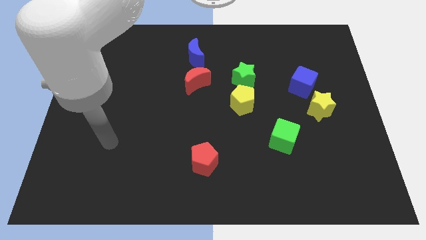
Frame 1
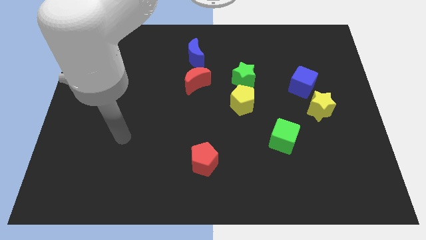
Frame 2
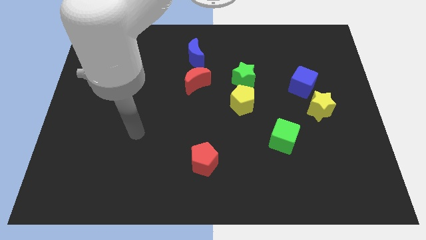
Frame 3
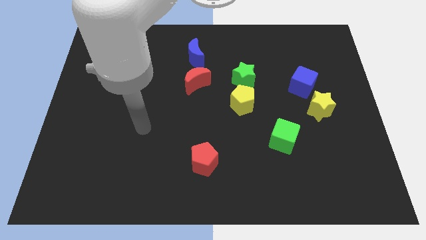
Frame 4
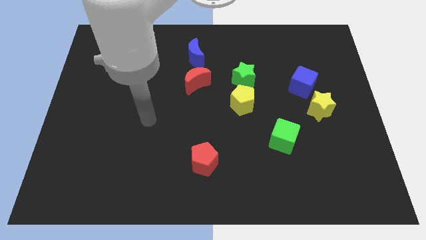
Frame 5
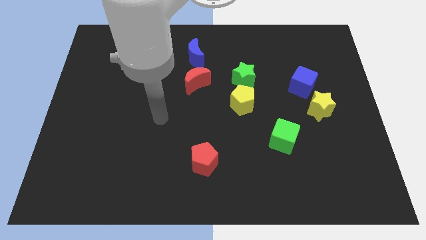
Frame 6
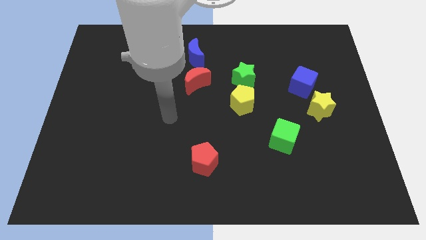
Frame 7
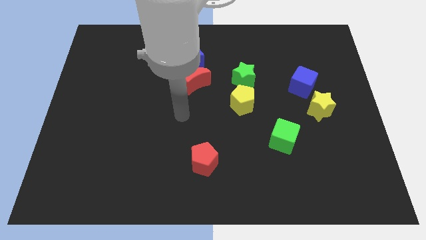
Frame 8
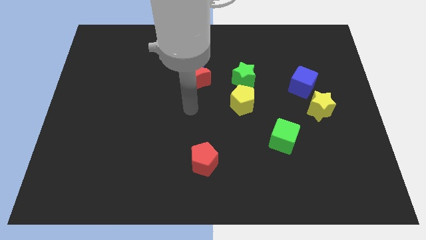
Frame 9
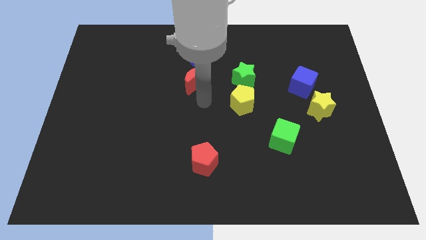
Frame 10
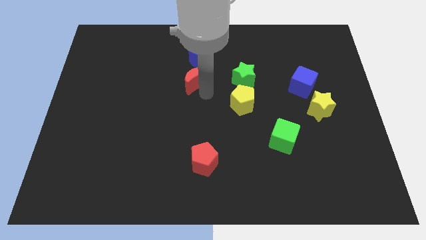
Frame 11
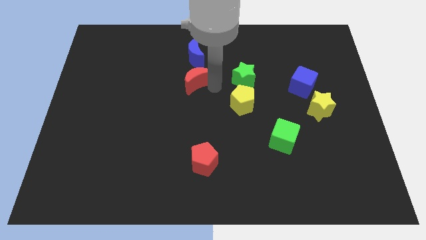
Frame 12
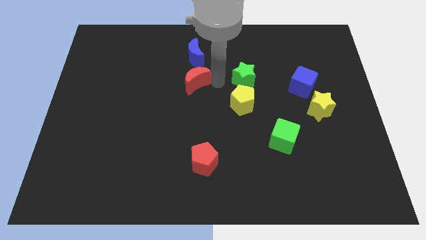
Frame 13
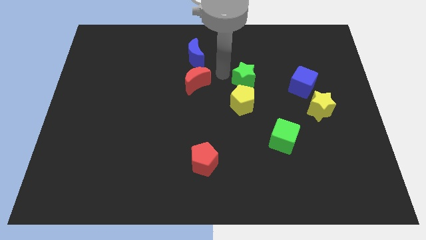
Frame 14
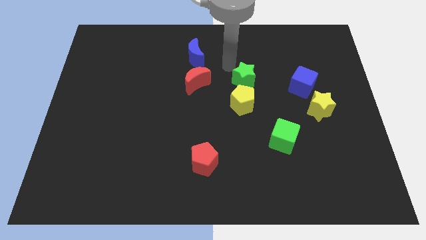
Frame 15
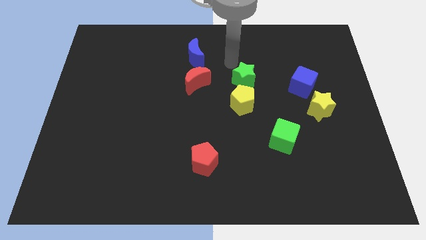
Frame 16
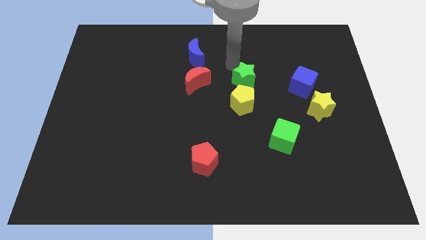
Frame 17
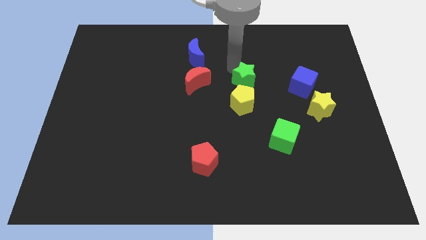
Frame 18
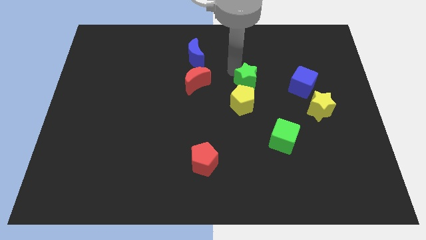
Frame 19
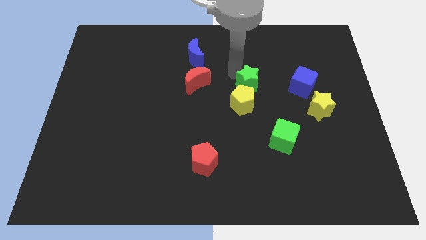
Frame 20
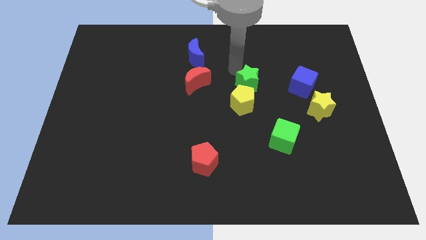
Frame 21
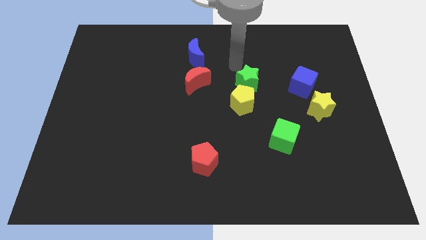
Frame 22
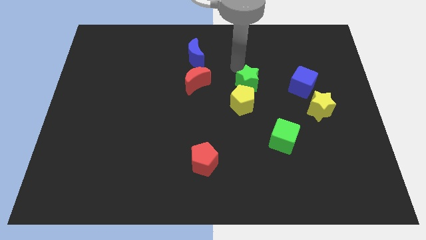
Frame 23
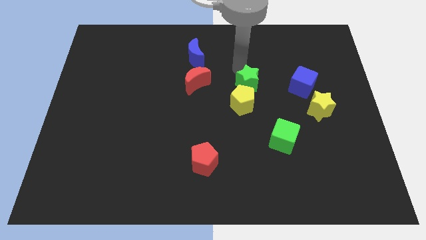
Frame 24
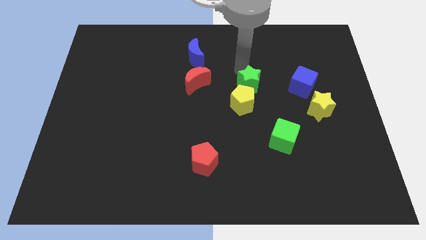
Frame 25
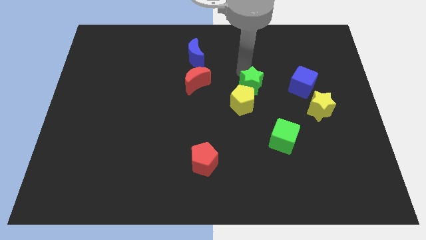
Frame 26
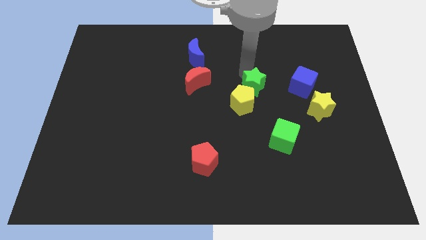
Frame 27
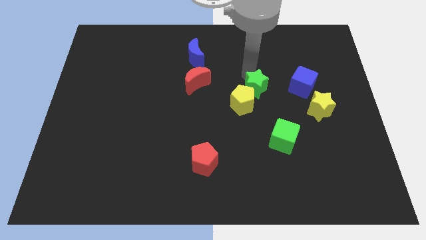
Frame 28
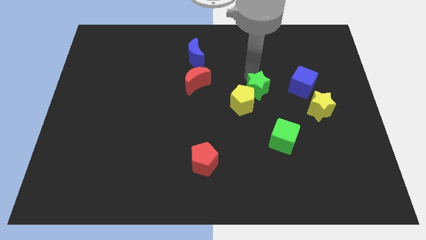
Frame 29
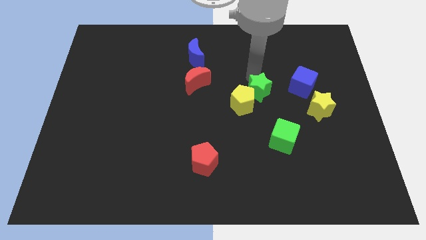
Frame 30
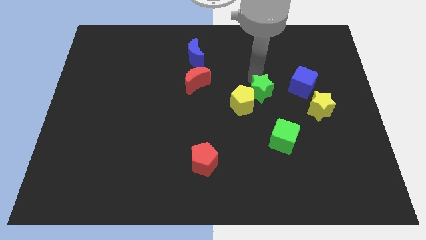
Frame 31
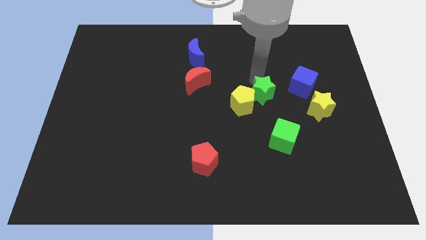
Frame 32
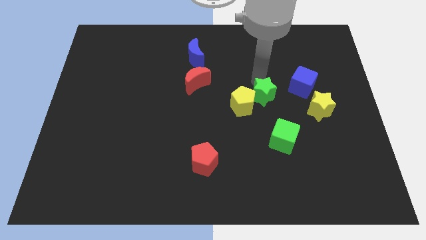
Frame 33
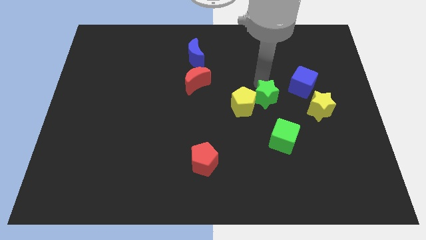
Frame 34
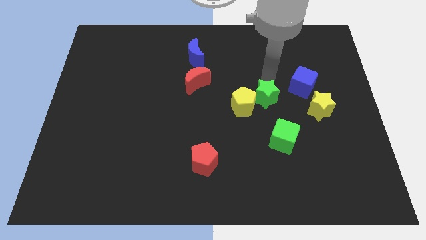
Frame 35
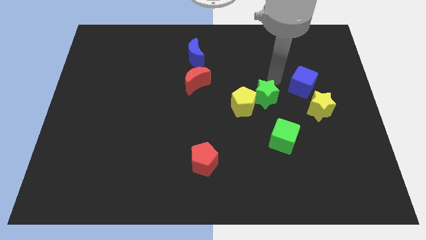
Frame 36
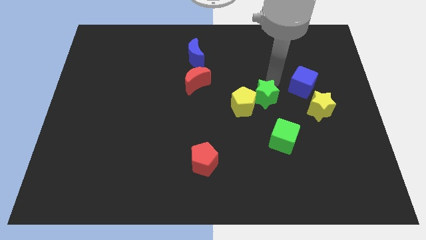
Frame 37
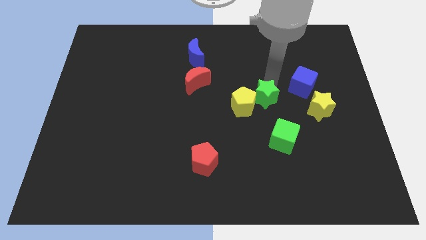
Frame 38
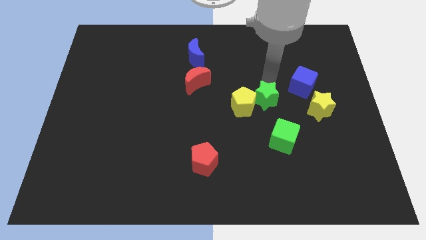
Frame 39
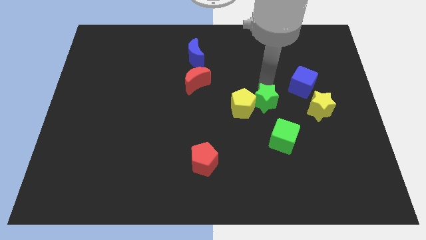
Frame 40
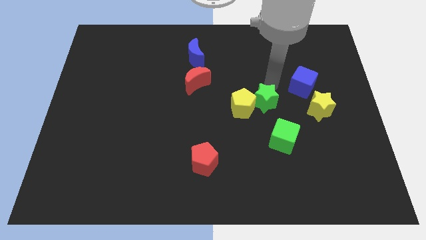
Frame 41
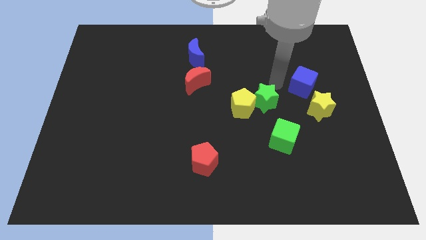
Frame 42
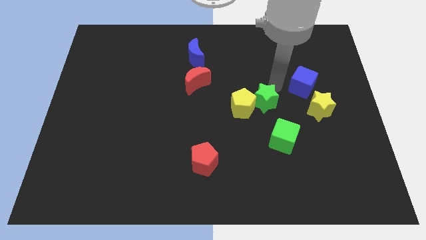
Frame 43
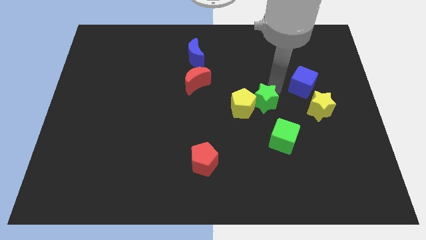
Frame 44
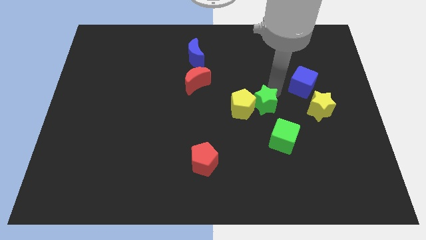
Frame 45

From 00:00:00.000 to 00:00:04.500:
slightly move the green star down

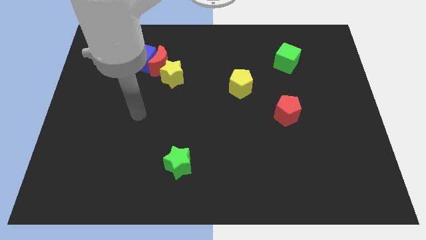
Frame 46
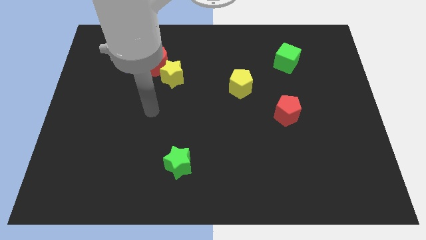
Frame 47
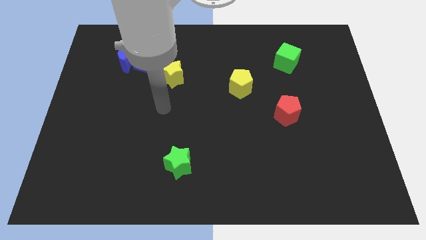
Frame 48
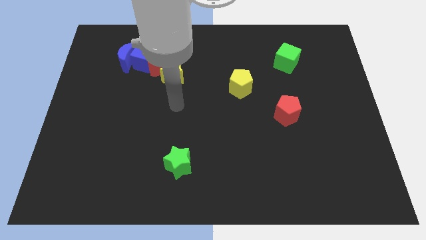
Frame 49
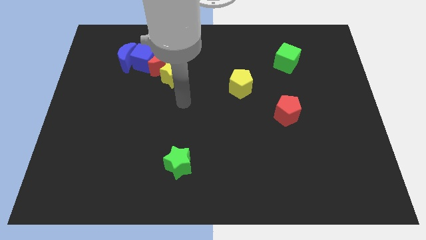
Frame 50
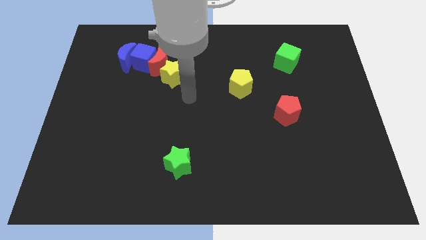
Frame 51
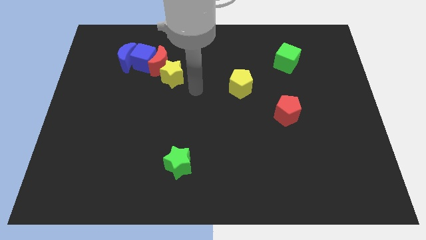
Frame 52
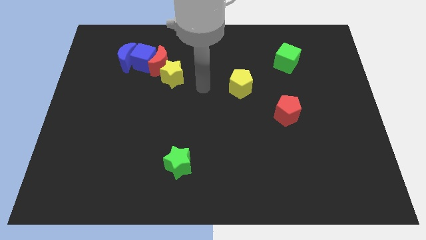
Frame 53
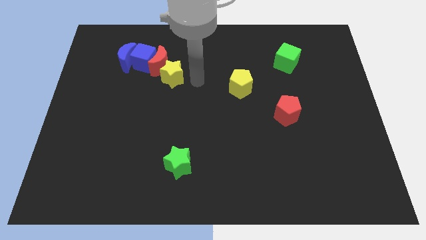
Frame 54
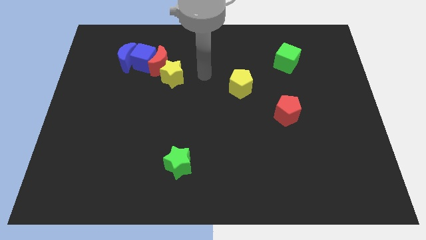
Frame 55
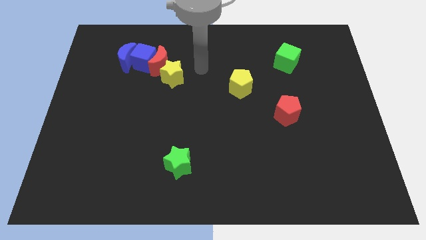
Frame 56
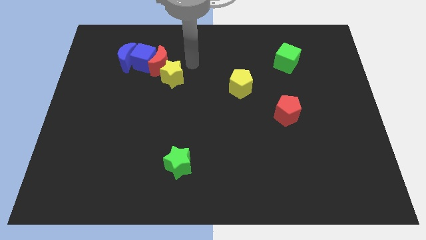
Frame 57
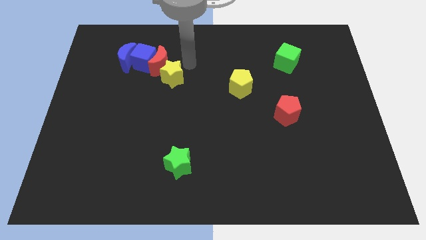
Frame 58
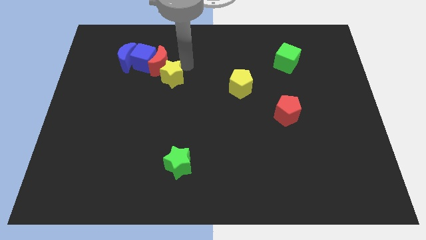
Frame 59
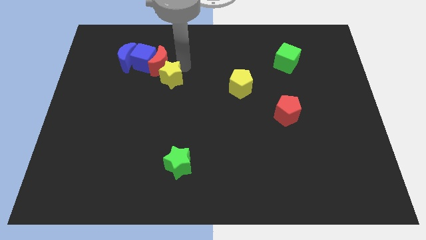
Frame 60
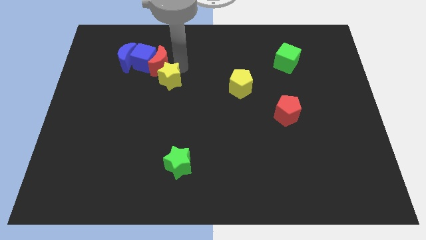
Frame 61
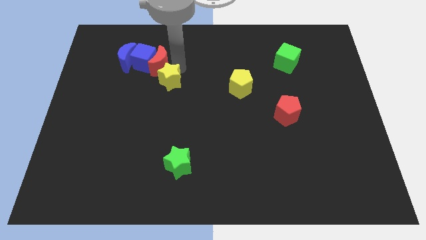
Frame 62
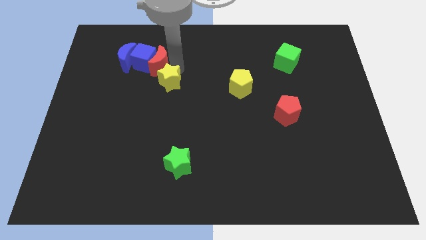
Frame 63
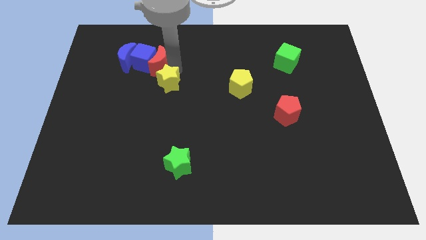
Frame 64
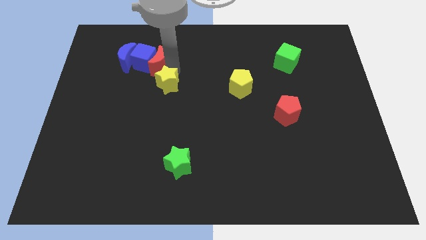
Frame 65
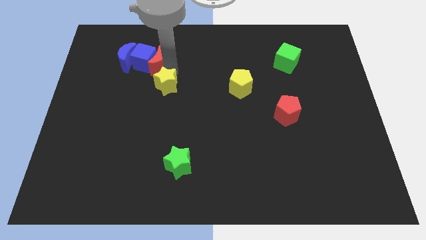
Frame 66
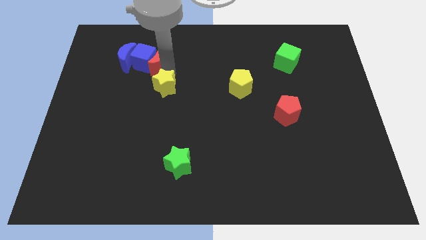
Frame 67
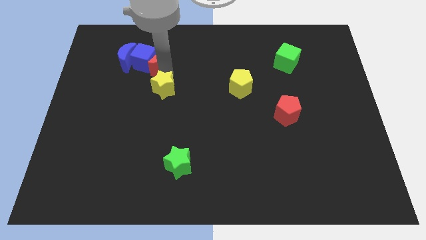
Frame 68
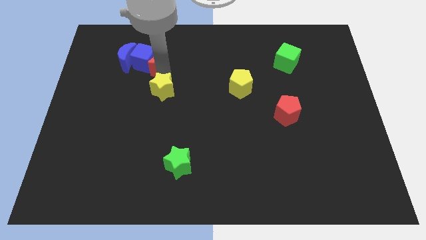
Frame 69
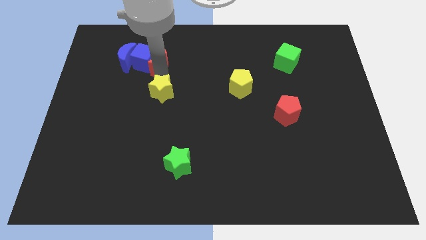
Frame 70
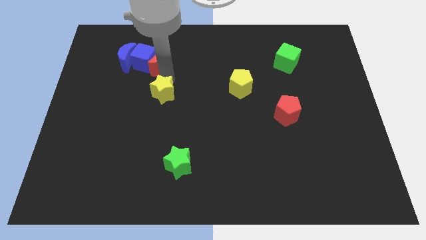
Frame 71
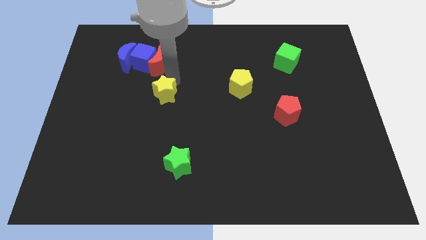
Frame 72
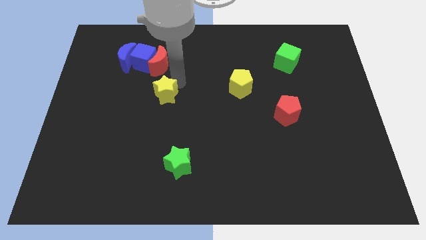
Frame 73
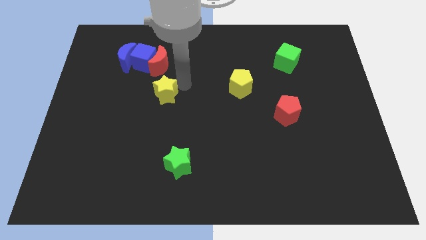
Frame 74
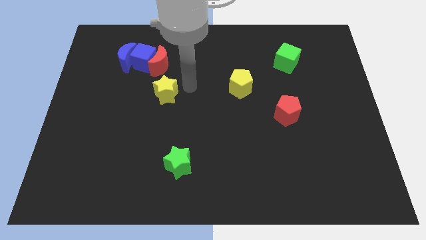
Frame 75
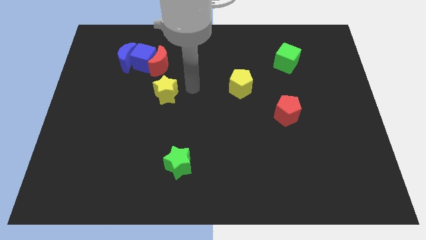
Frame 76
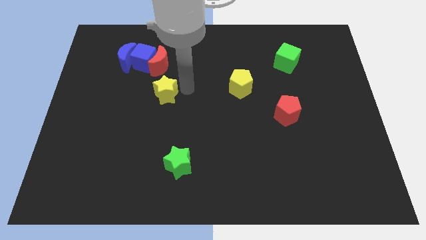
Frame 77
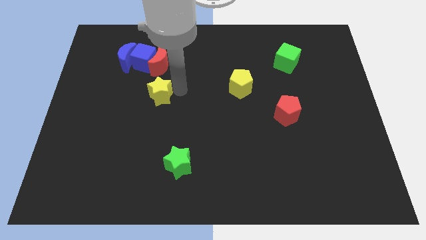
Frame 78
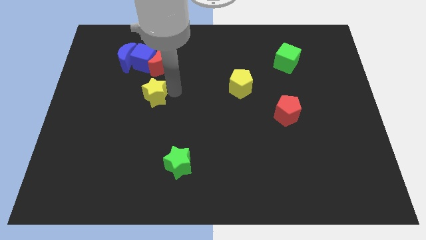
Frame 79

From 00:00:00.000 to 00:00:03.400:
push the yellow star diagonally down and left somewhat
